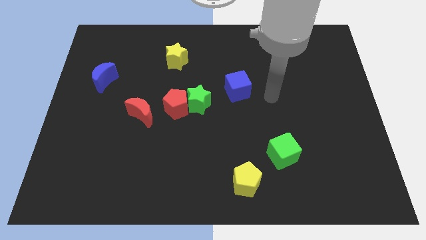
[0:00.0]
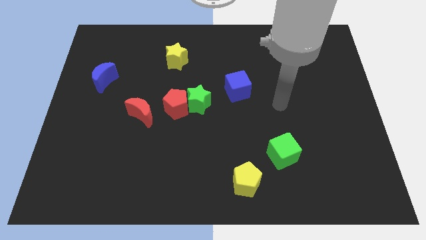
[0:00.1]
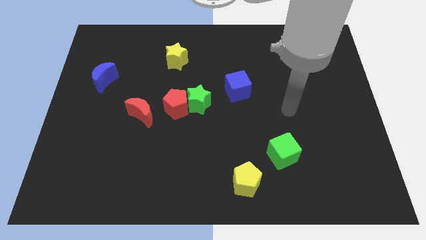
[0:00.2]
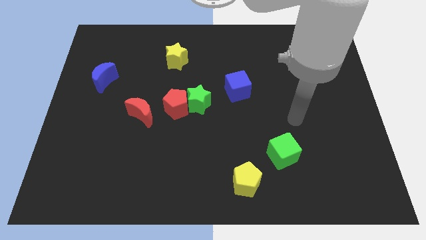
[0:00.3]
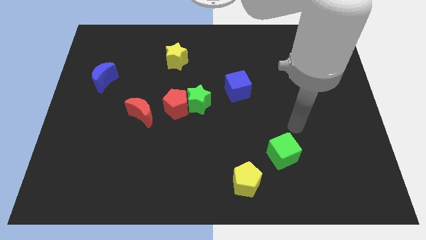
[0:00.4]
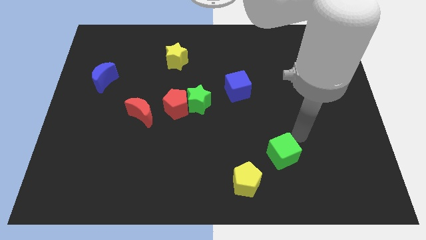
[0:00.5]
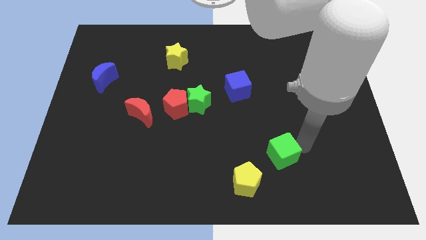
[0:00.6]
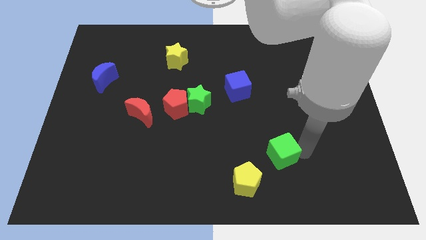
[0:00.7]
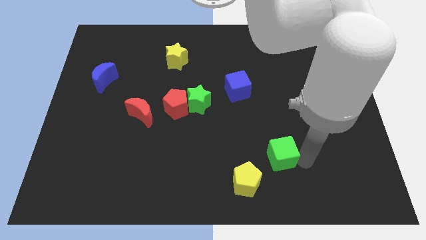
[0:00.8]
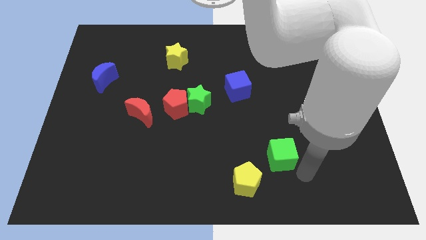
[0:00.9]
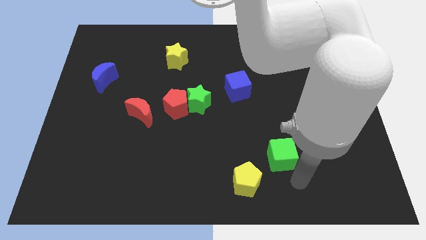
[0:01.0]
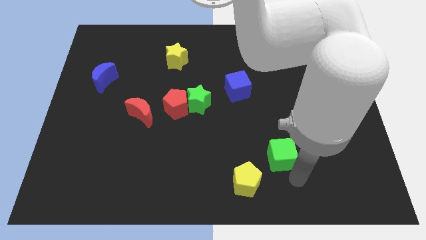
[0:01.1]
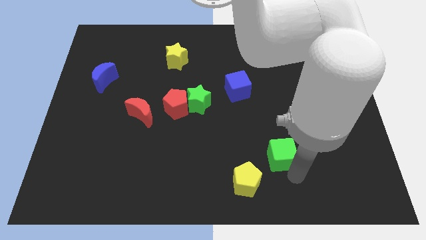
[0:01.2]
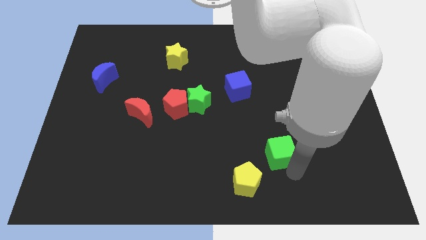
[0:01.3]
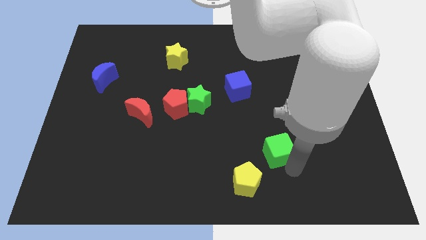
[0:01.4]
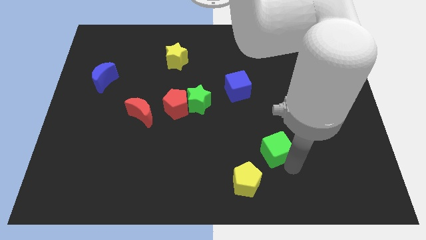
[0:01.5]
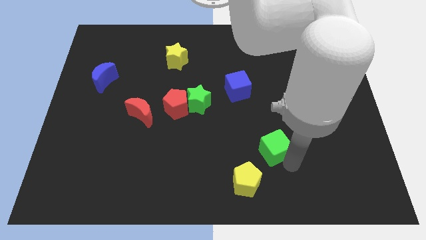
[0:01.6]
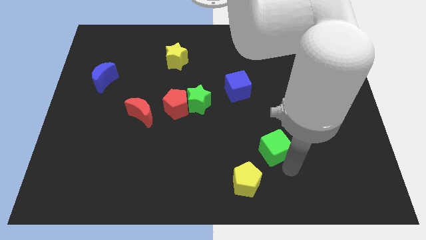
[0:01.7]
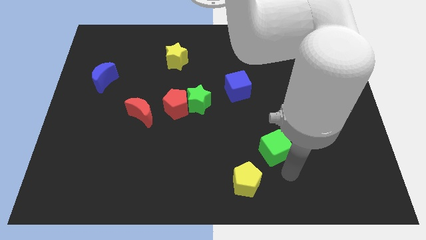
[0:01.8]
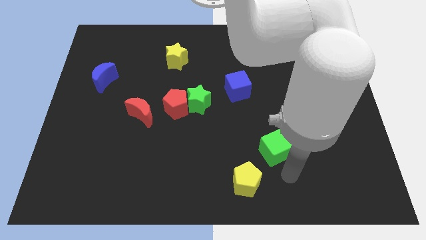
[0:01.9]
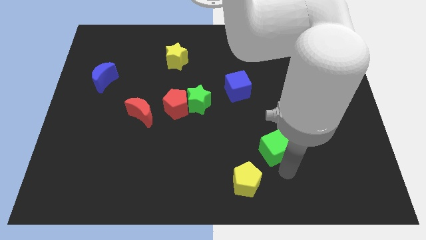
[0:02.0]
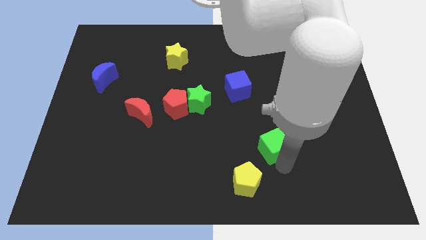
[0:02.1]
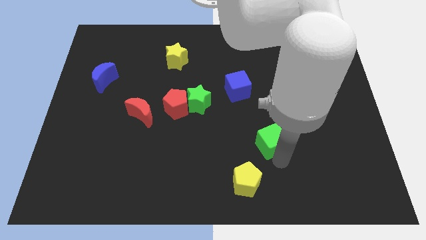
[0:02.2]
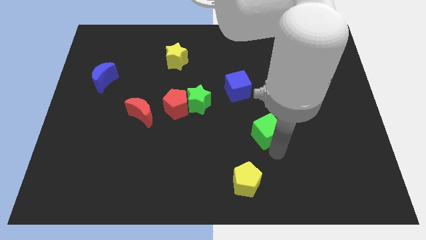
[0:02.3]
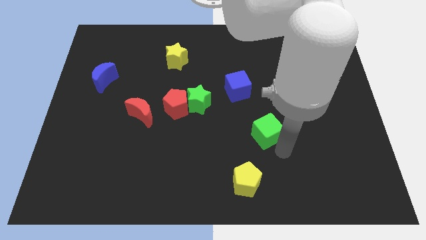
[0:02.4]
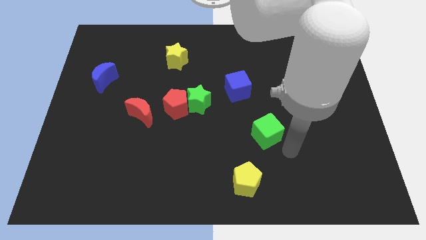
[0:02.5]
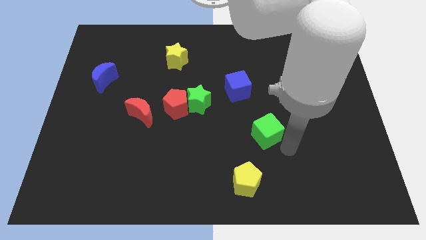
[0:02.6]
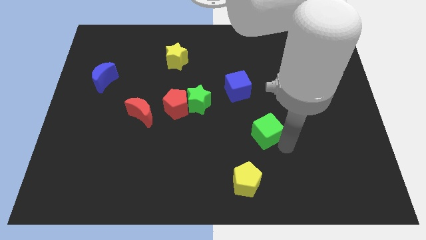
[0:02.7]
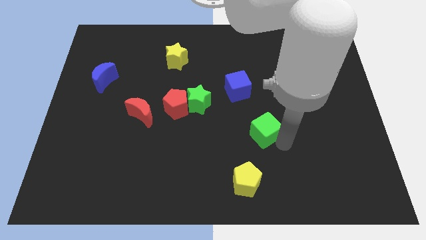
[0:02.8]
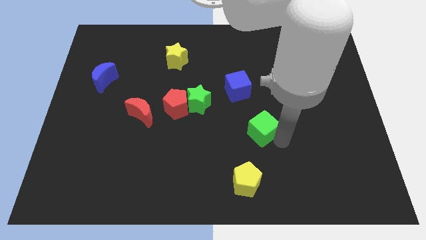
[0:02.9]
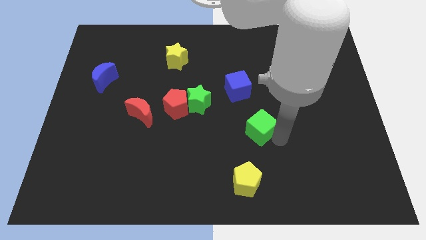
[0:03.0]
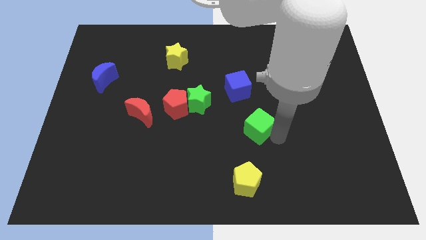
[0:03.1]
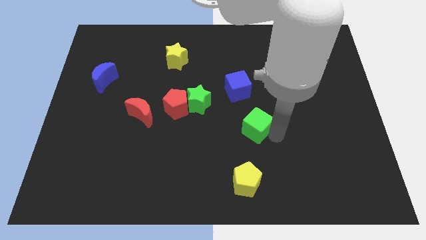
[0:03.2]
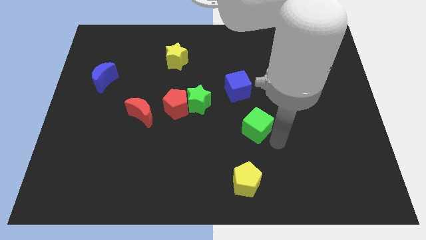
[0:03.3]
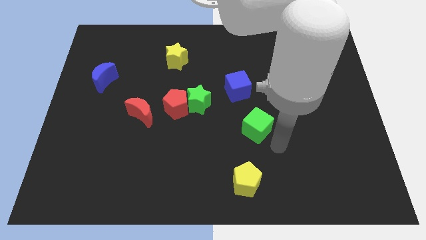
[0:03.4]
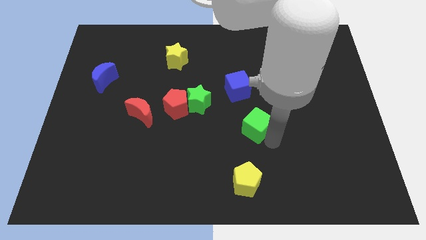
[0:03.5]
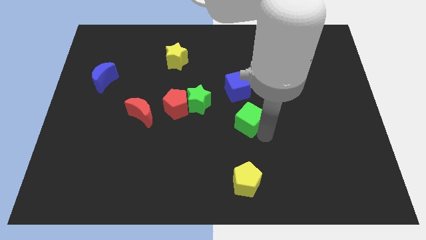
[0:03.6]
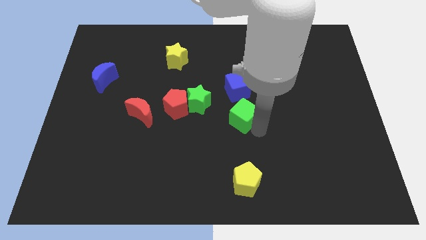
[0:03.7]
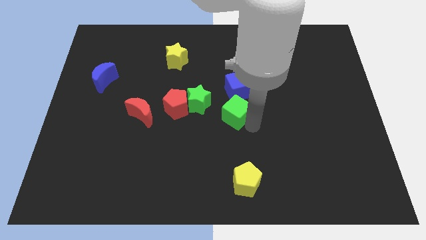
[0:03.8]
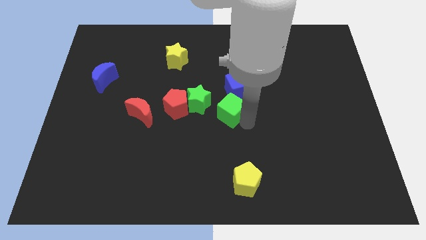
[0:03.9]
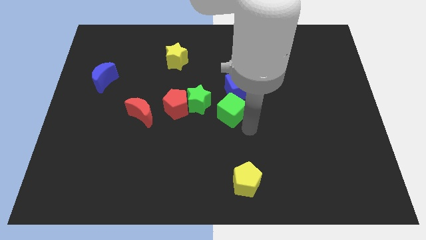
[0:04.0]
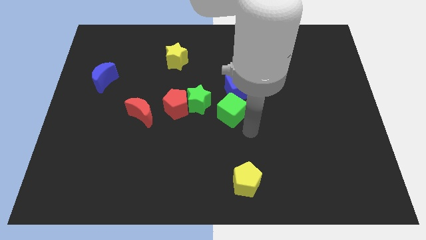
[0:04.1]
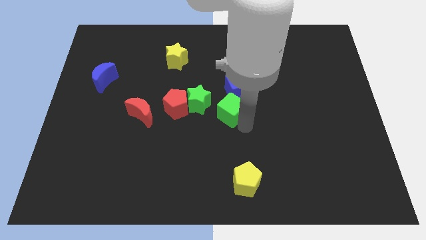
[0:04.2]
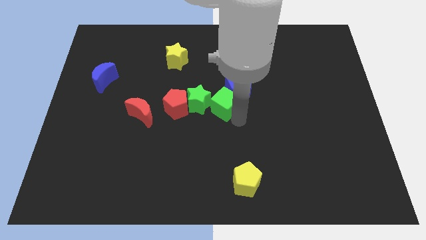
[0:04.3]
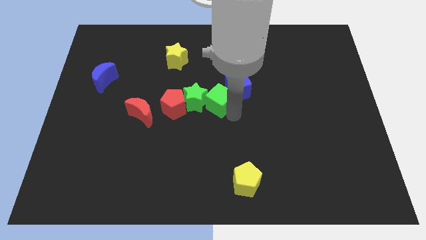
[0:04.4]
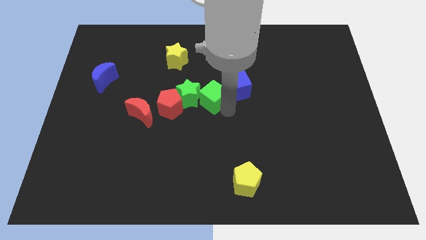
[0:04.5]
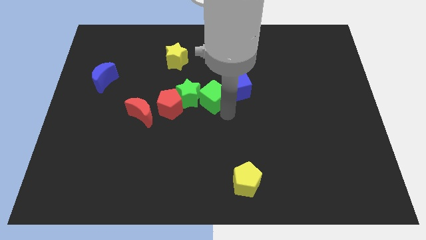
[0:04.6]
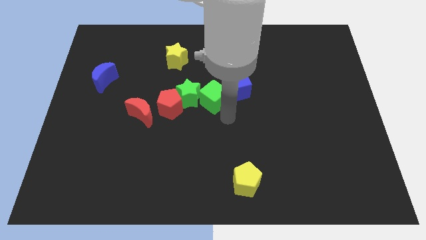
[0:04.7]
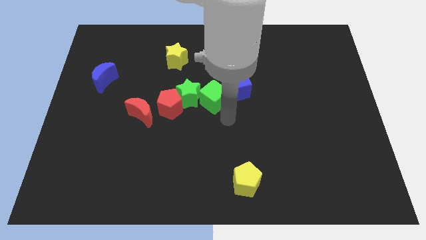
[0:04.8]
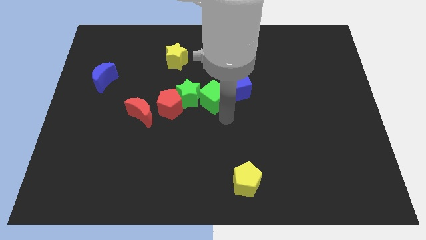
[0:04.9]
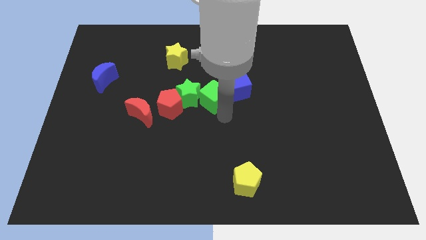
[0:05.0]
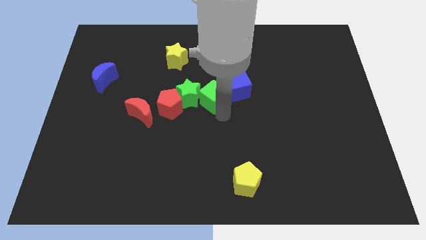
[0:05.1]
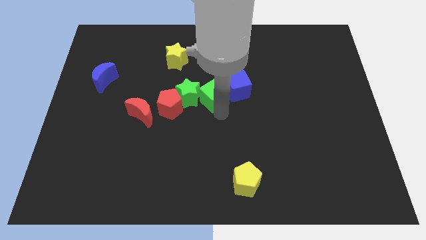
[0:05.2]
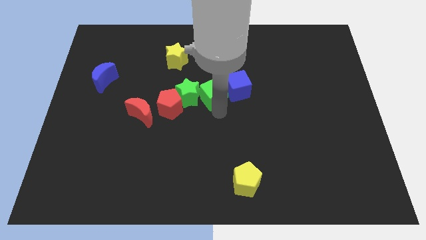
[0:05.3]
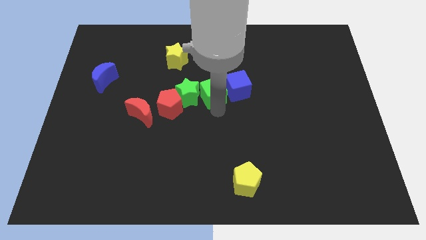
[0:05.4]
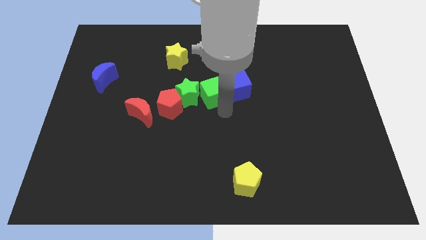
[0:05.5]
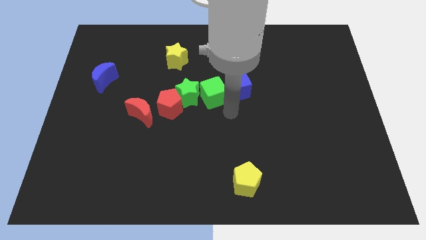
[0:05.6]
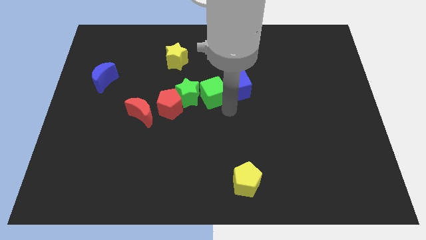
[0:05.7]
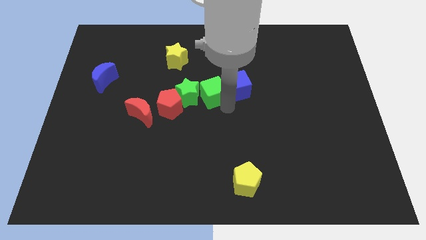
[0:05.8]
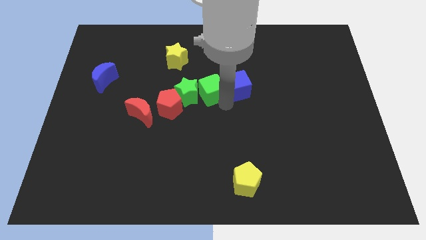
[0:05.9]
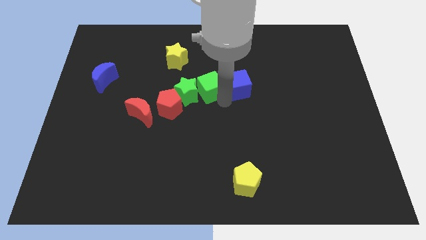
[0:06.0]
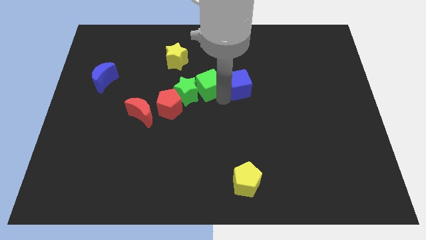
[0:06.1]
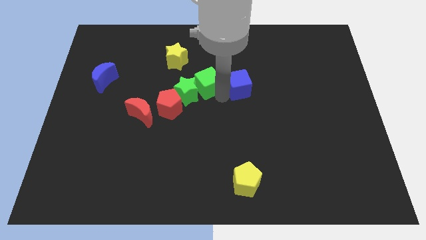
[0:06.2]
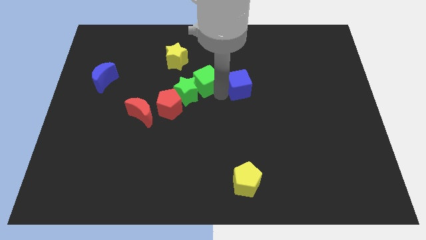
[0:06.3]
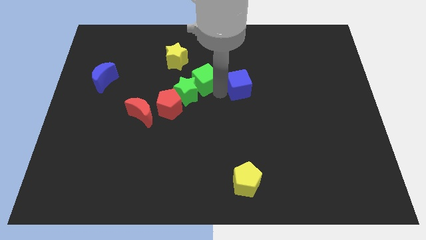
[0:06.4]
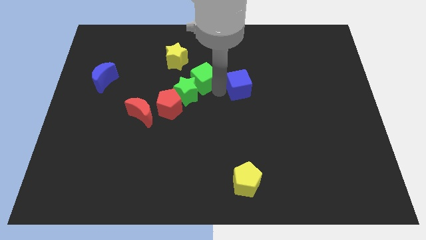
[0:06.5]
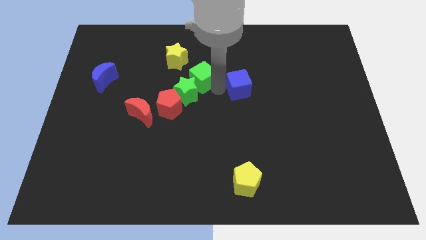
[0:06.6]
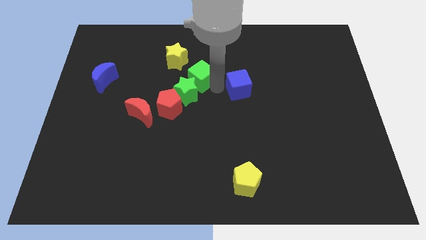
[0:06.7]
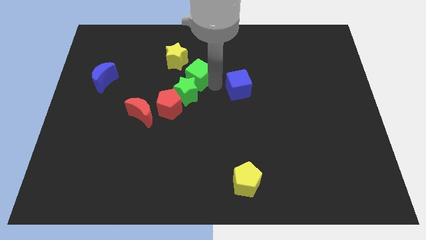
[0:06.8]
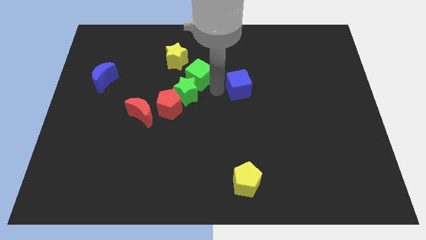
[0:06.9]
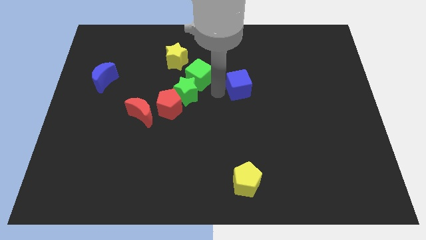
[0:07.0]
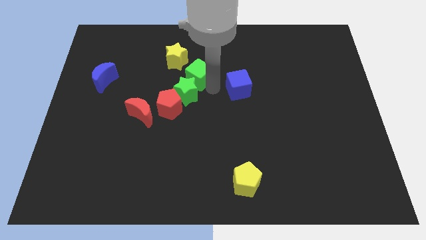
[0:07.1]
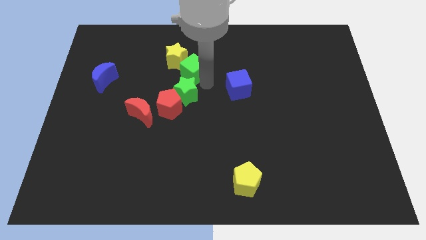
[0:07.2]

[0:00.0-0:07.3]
slide the green cube next to the yellow star

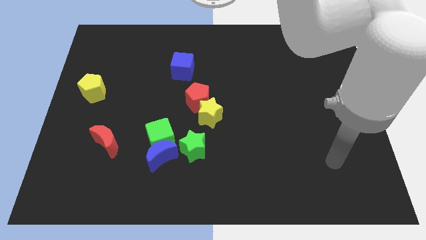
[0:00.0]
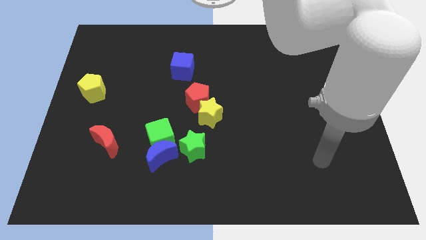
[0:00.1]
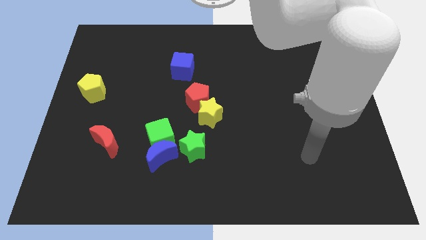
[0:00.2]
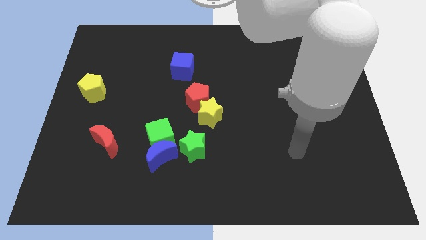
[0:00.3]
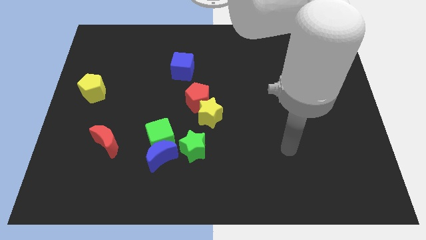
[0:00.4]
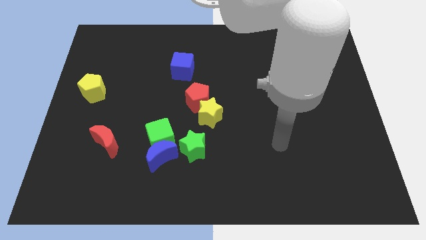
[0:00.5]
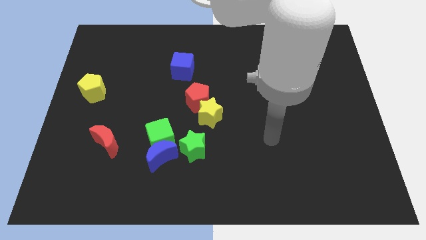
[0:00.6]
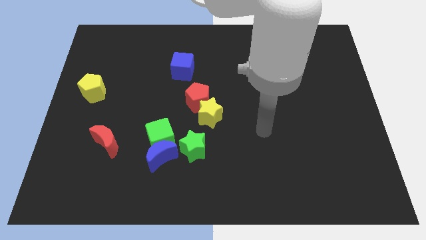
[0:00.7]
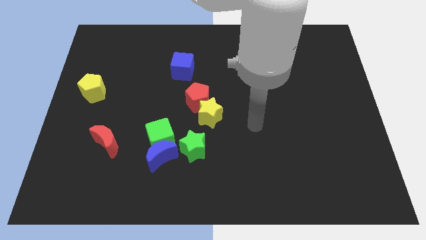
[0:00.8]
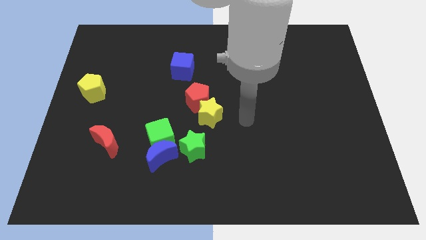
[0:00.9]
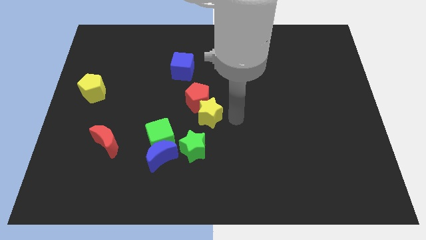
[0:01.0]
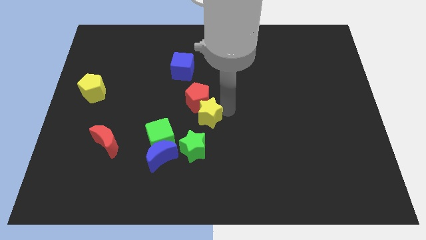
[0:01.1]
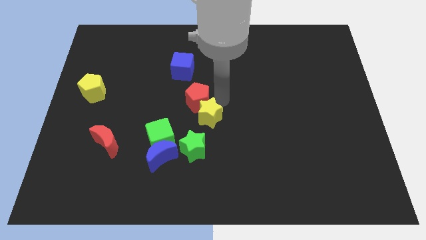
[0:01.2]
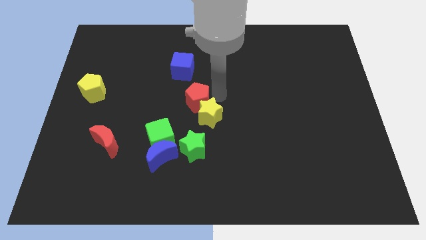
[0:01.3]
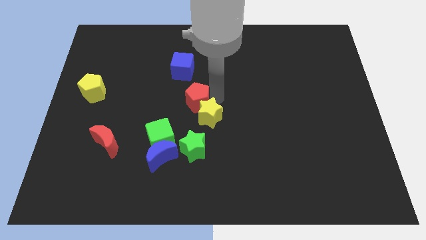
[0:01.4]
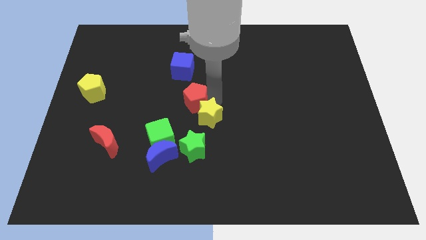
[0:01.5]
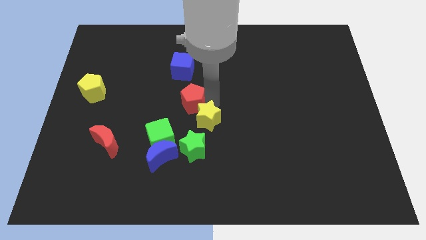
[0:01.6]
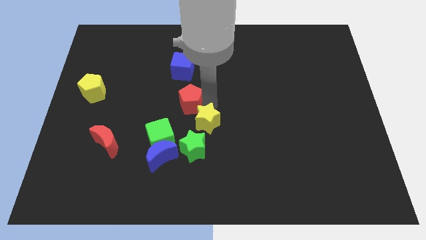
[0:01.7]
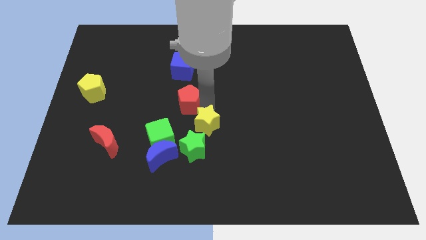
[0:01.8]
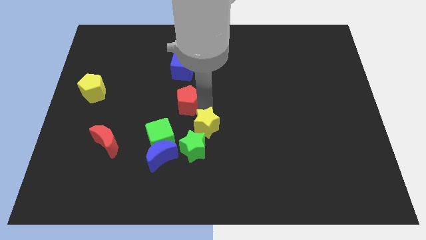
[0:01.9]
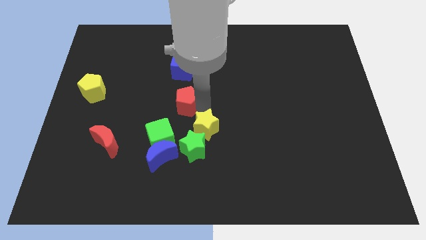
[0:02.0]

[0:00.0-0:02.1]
push the yellow star to the green star
